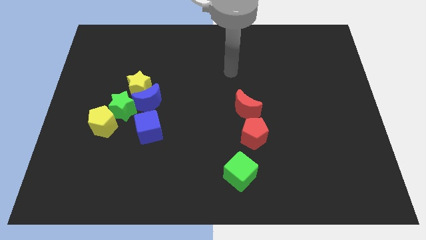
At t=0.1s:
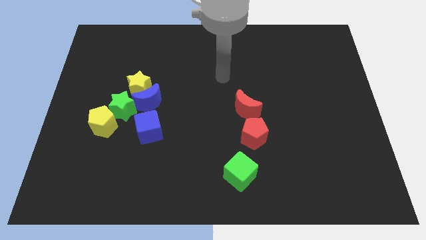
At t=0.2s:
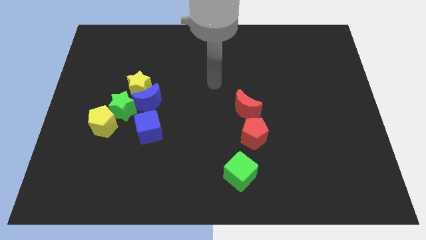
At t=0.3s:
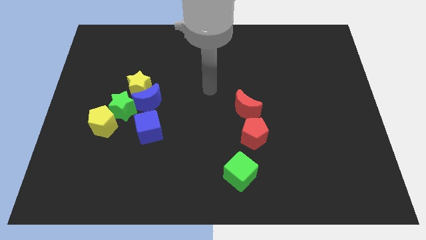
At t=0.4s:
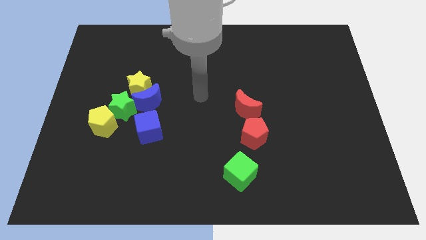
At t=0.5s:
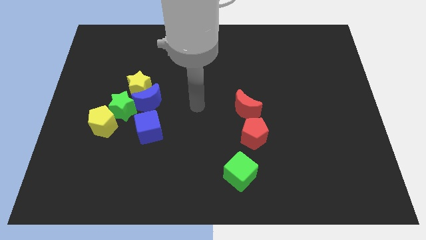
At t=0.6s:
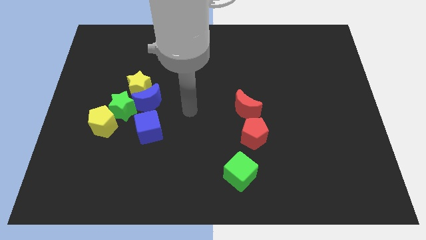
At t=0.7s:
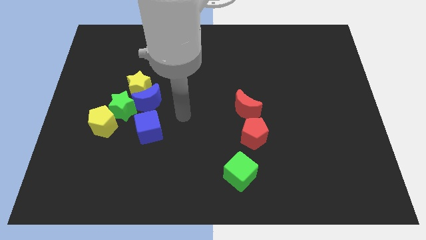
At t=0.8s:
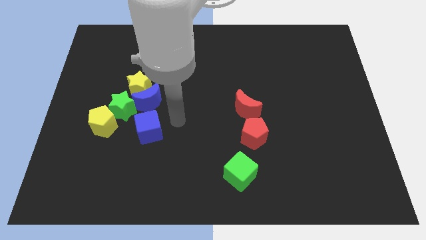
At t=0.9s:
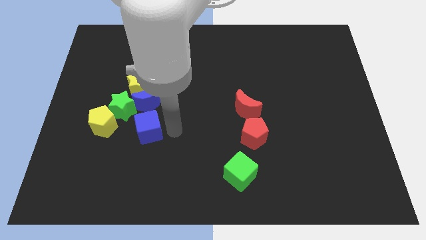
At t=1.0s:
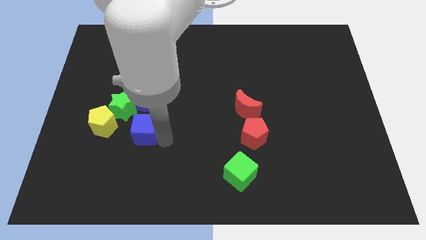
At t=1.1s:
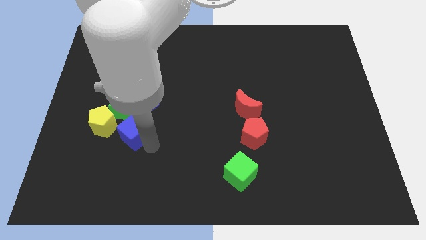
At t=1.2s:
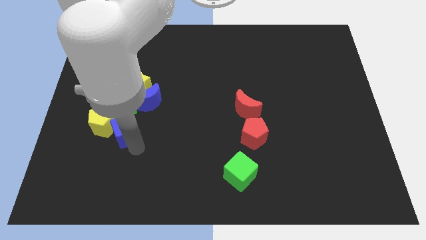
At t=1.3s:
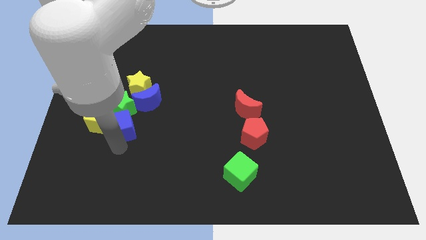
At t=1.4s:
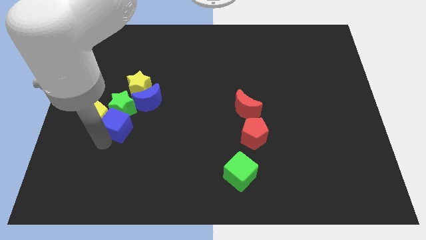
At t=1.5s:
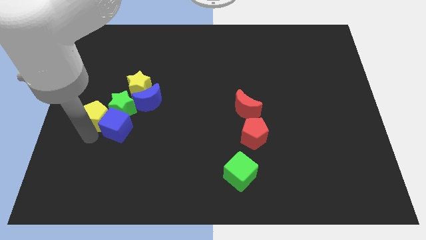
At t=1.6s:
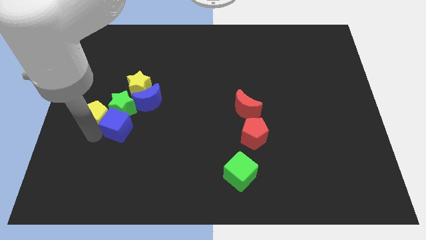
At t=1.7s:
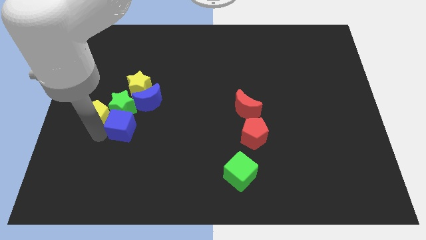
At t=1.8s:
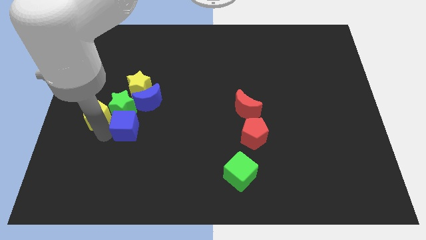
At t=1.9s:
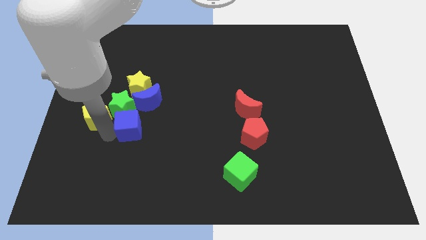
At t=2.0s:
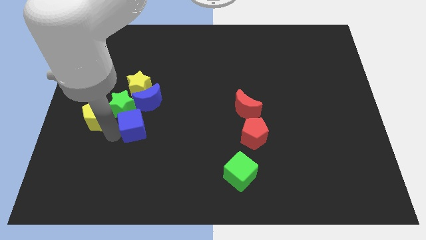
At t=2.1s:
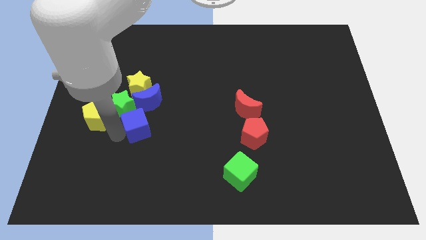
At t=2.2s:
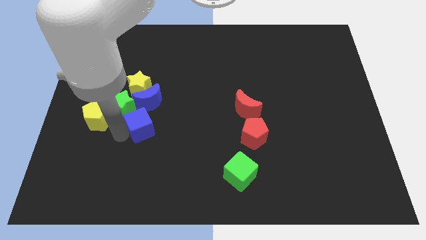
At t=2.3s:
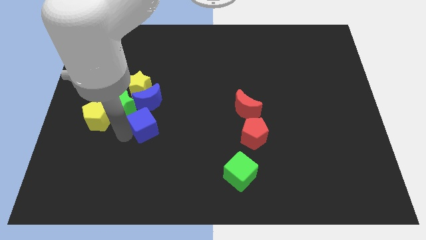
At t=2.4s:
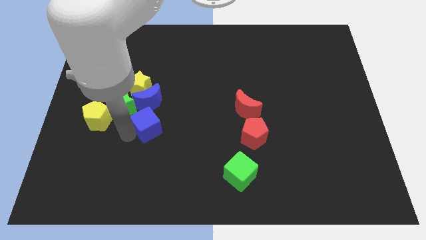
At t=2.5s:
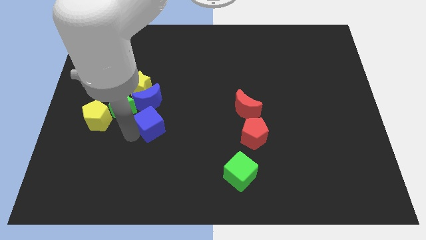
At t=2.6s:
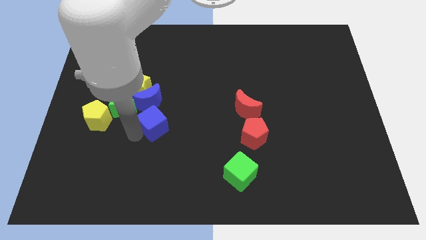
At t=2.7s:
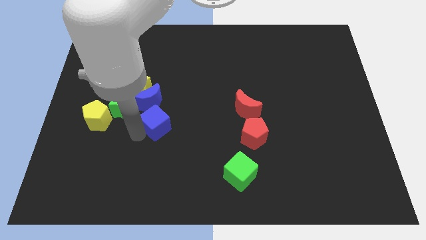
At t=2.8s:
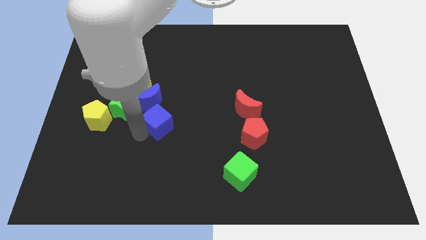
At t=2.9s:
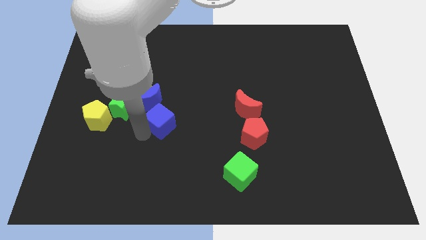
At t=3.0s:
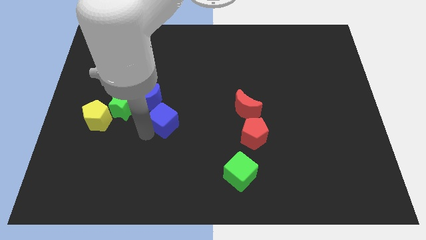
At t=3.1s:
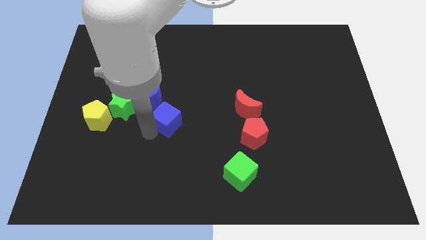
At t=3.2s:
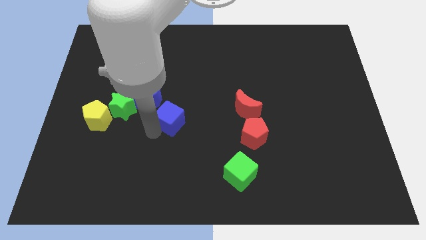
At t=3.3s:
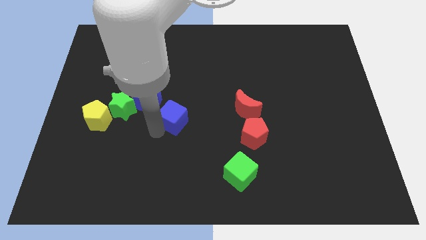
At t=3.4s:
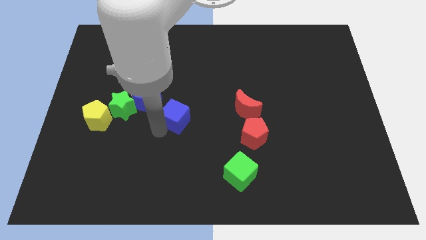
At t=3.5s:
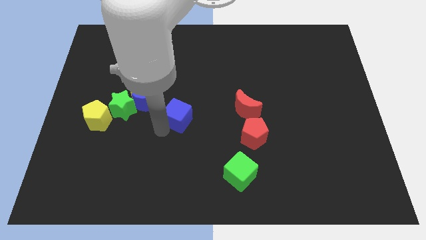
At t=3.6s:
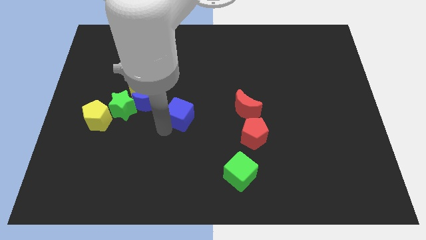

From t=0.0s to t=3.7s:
push the blue cube somewhat up and then to the right

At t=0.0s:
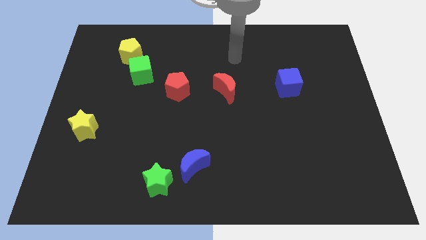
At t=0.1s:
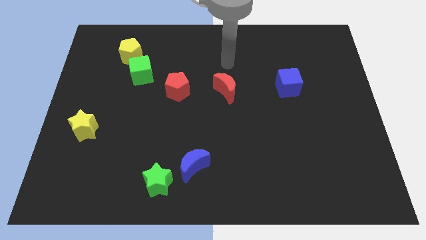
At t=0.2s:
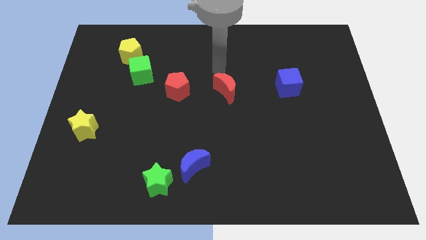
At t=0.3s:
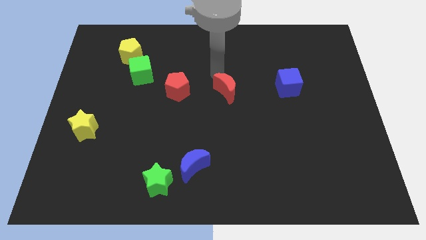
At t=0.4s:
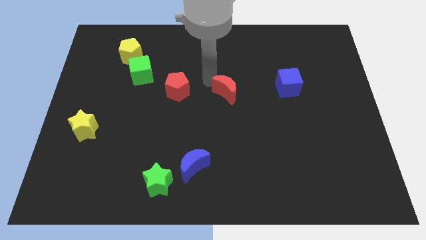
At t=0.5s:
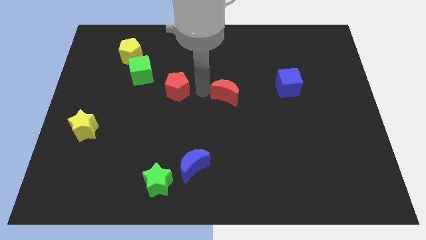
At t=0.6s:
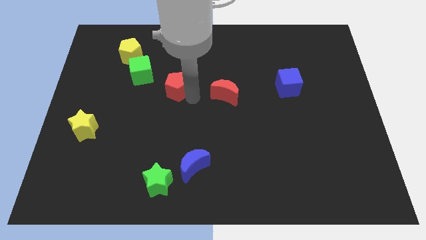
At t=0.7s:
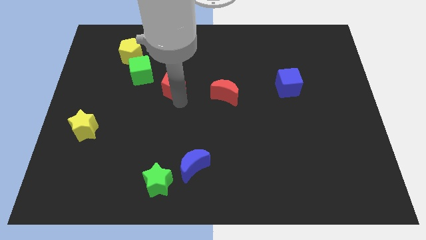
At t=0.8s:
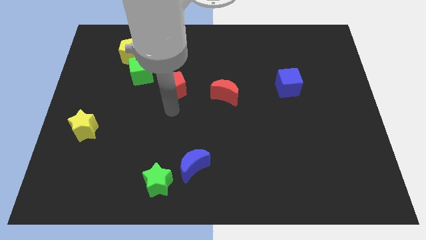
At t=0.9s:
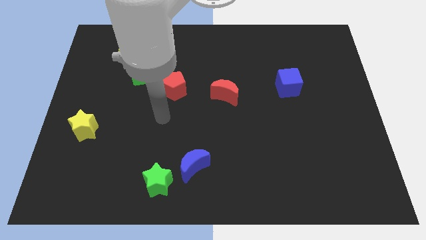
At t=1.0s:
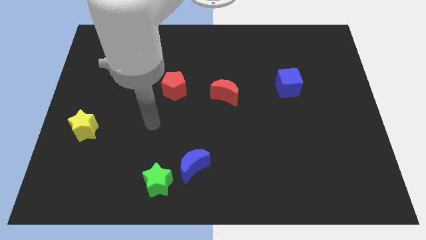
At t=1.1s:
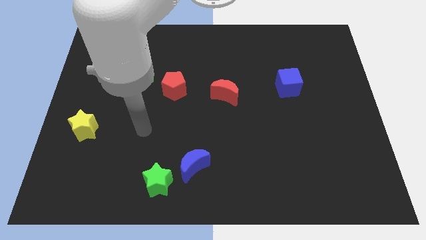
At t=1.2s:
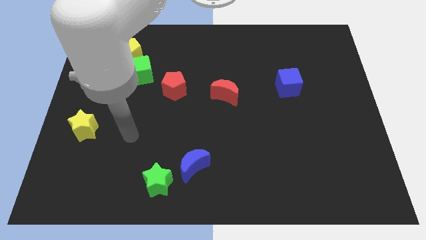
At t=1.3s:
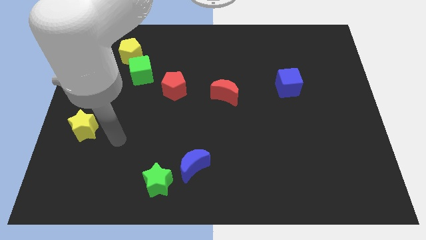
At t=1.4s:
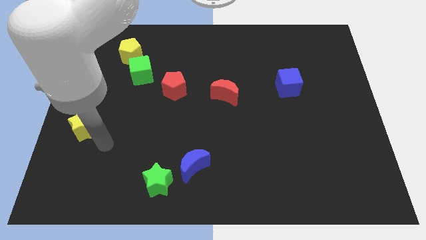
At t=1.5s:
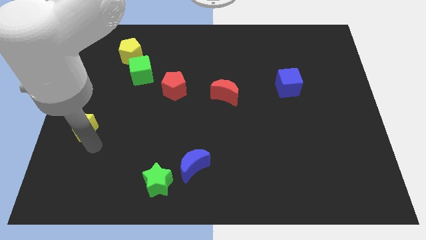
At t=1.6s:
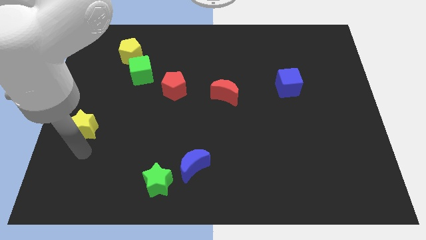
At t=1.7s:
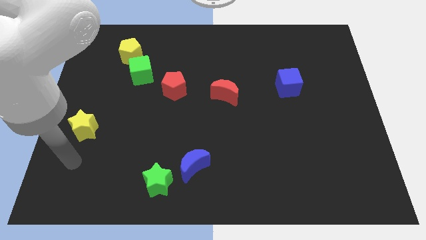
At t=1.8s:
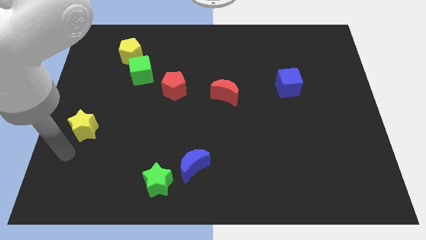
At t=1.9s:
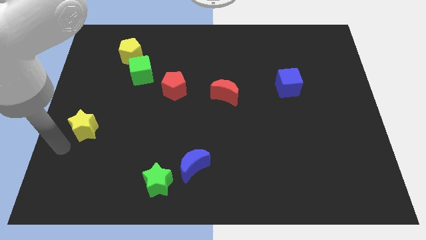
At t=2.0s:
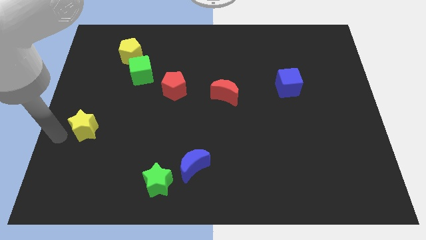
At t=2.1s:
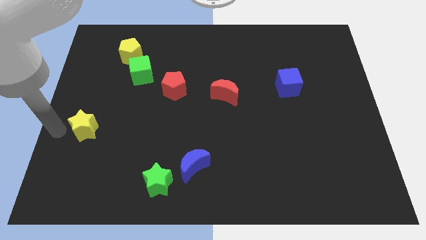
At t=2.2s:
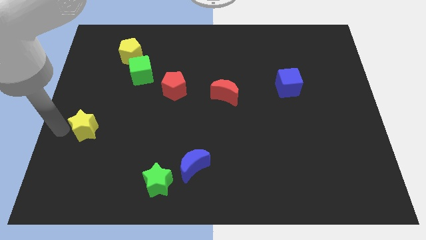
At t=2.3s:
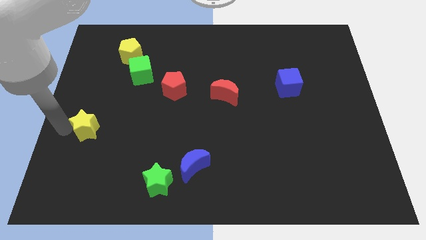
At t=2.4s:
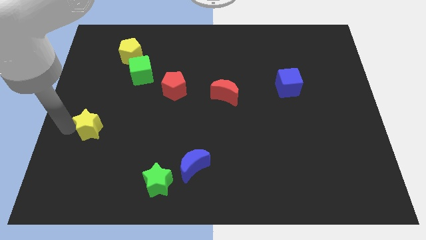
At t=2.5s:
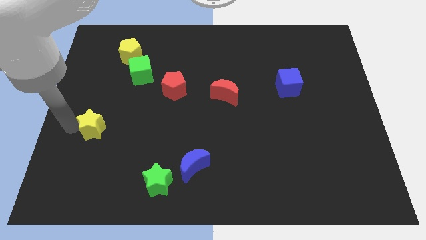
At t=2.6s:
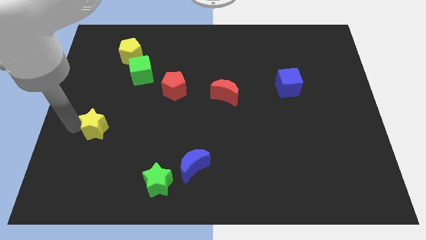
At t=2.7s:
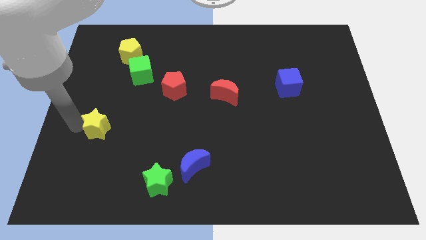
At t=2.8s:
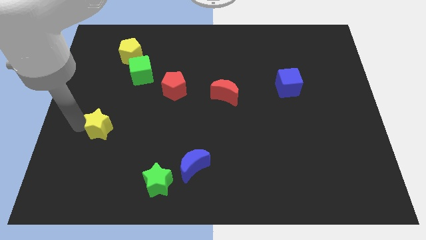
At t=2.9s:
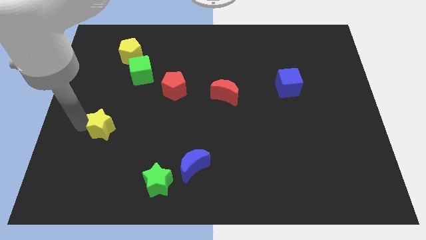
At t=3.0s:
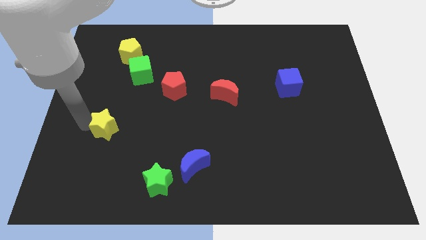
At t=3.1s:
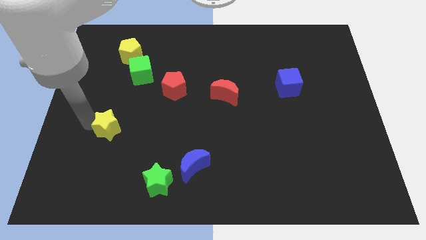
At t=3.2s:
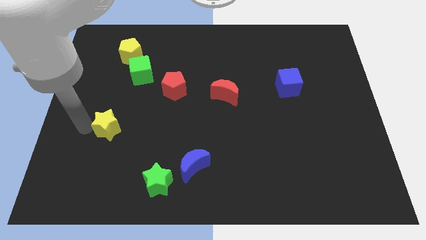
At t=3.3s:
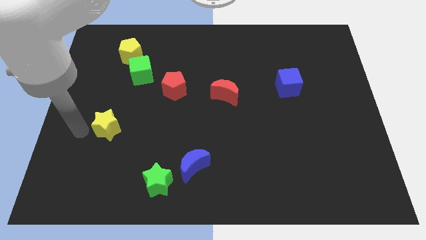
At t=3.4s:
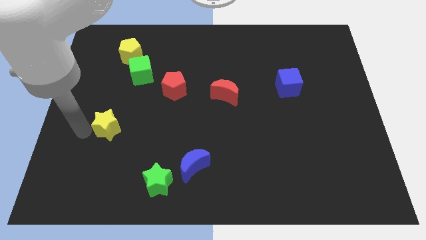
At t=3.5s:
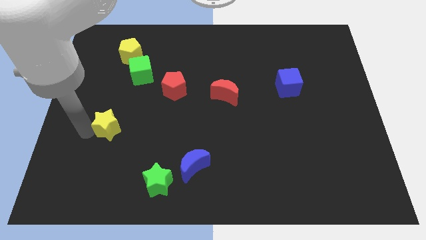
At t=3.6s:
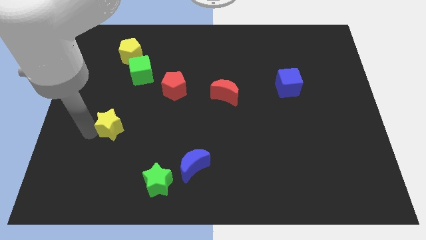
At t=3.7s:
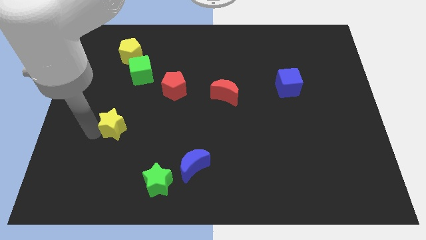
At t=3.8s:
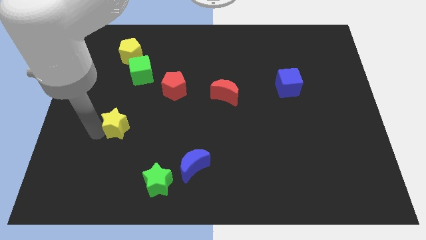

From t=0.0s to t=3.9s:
move the yellow star a little to the right

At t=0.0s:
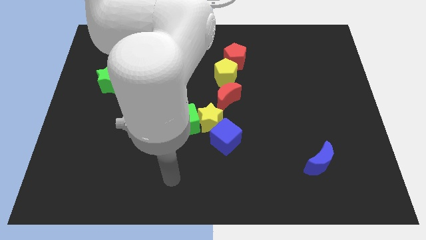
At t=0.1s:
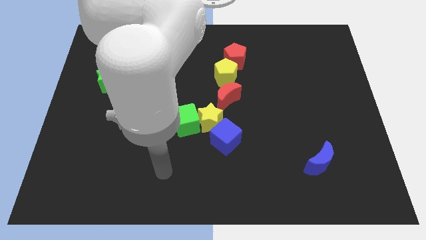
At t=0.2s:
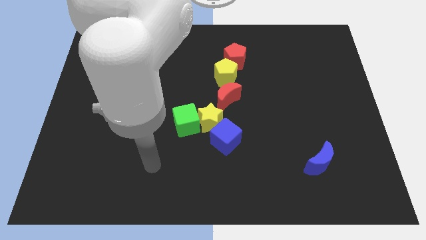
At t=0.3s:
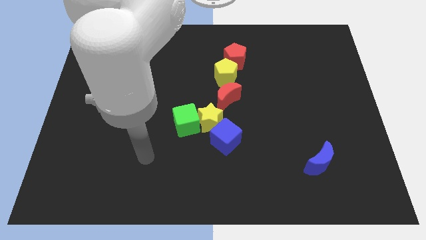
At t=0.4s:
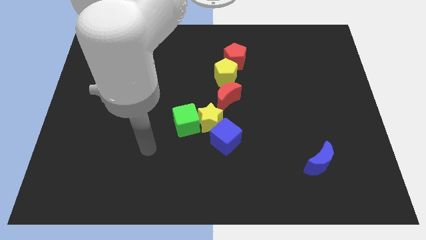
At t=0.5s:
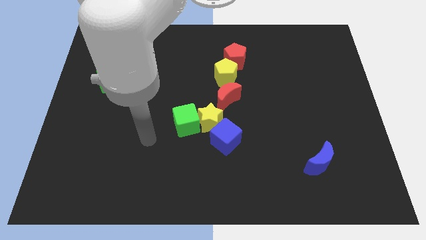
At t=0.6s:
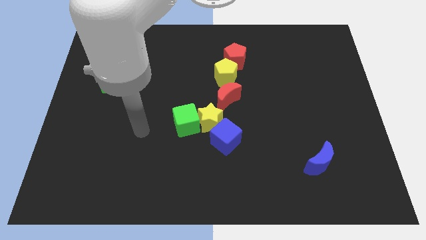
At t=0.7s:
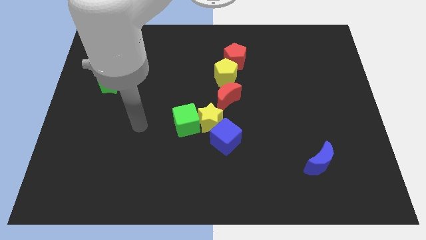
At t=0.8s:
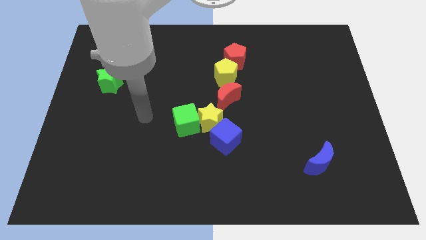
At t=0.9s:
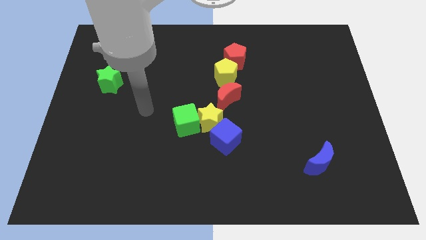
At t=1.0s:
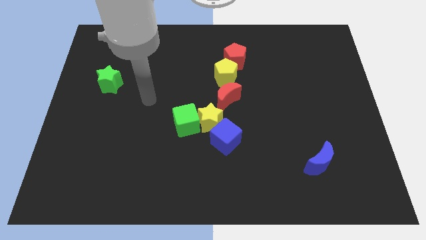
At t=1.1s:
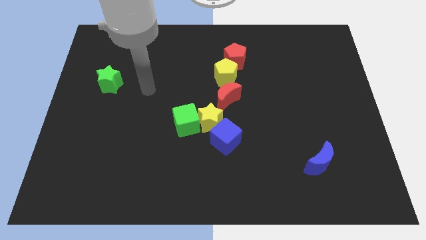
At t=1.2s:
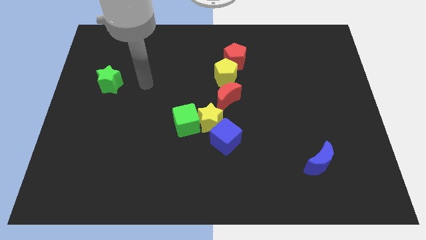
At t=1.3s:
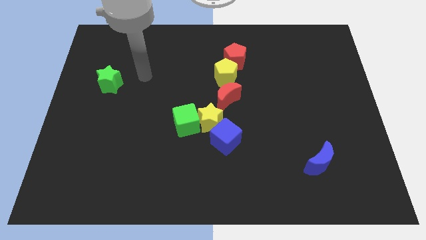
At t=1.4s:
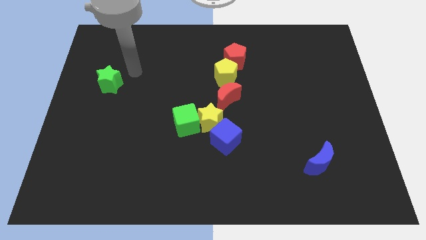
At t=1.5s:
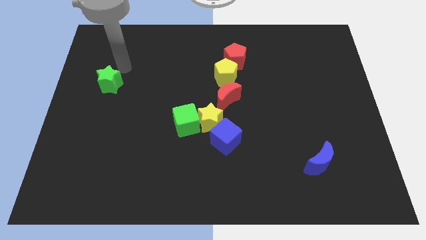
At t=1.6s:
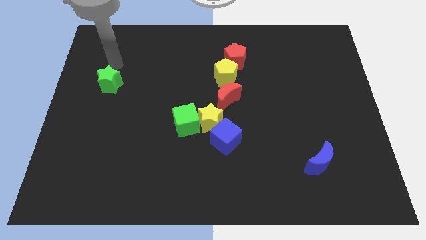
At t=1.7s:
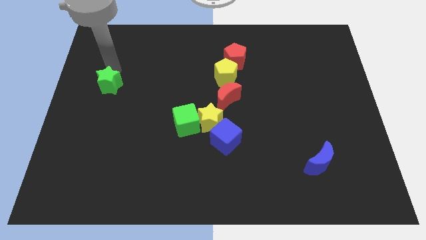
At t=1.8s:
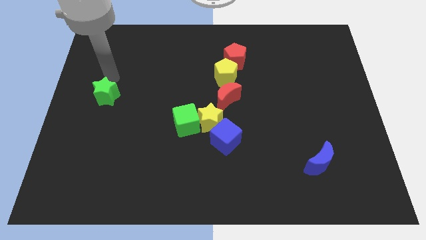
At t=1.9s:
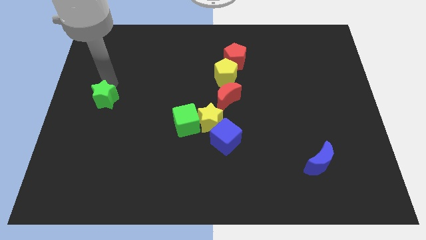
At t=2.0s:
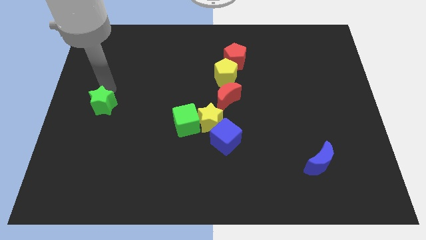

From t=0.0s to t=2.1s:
slightly slide the green star down
